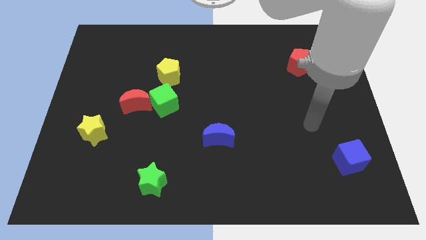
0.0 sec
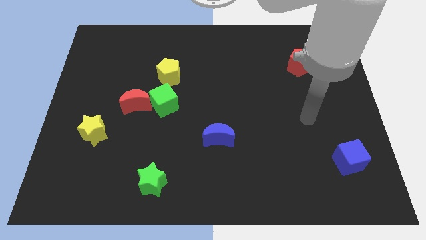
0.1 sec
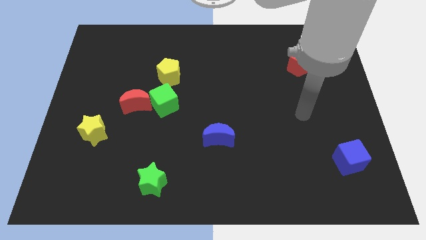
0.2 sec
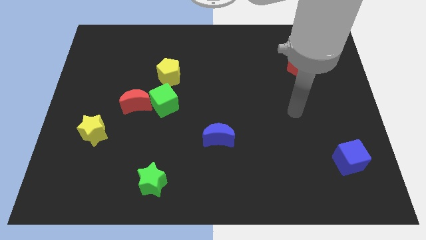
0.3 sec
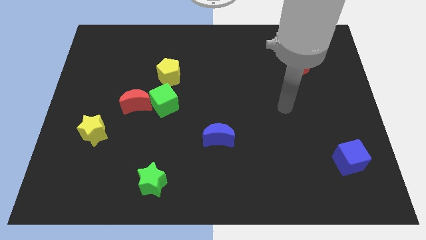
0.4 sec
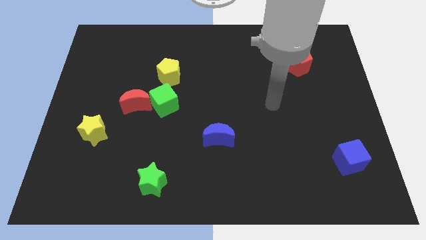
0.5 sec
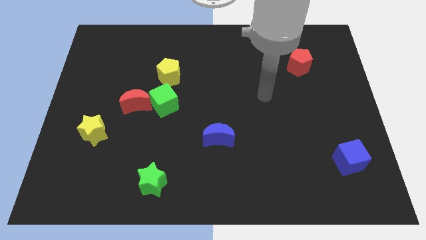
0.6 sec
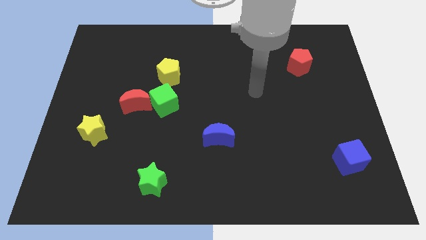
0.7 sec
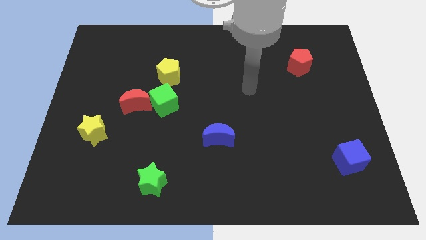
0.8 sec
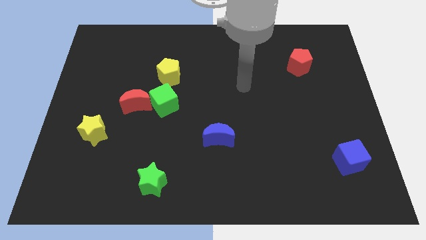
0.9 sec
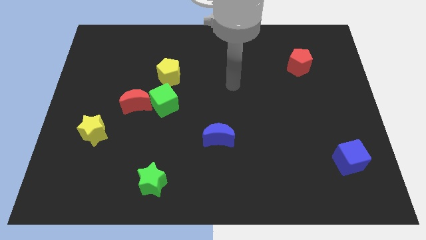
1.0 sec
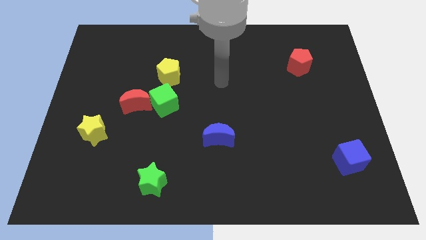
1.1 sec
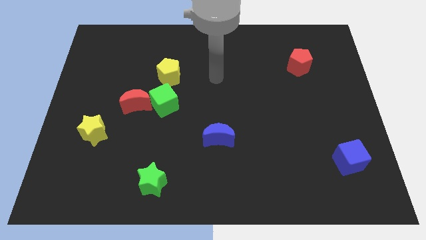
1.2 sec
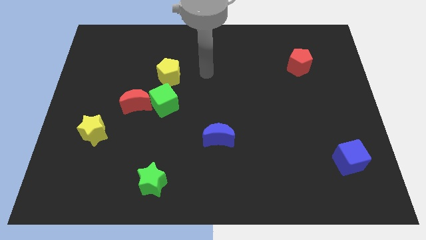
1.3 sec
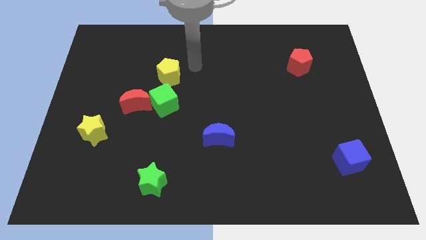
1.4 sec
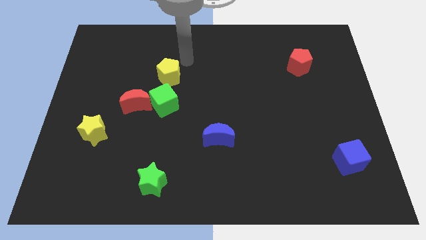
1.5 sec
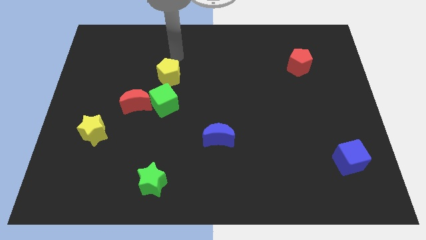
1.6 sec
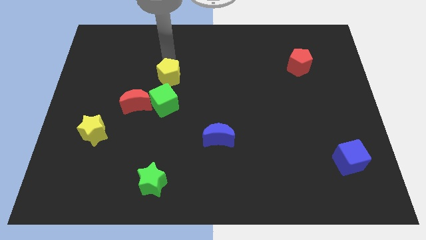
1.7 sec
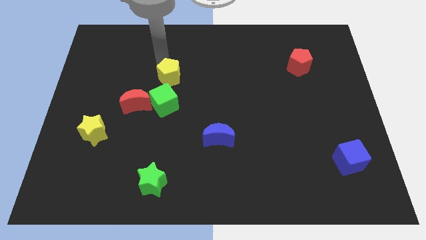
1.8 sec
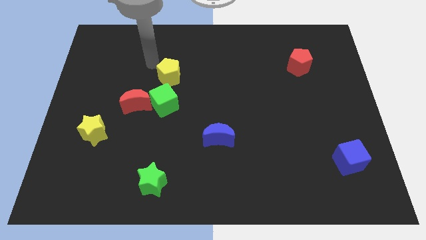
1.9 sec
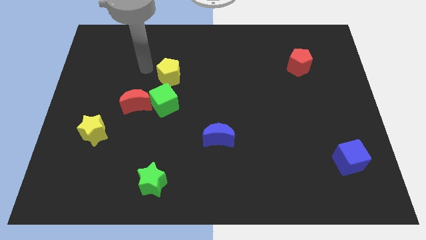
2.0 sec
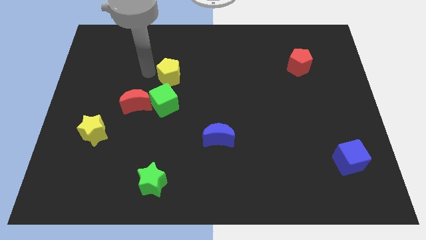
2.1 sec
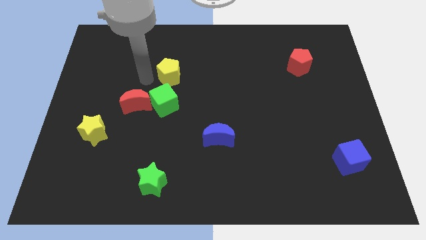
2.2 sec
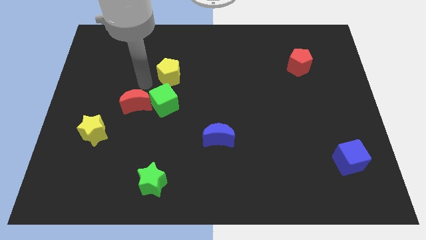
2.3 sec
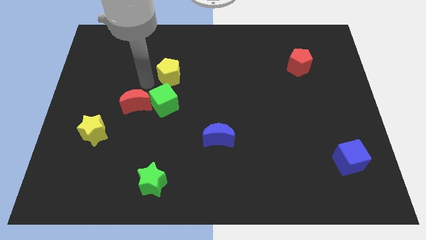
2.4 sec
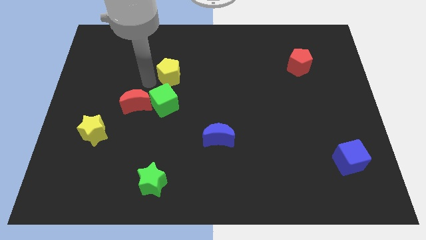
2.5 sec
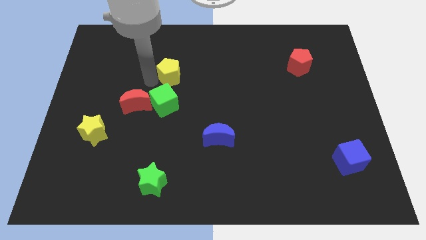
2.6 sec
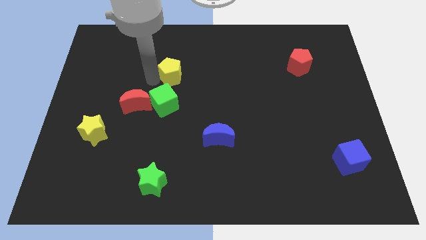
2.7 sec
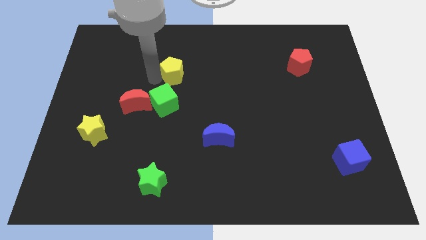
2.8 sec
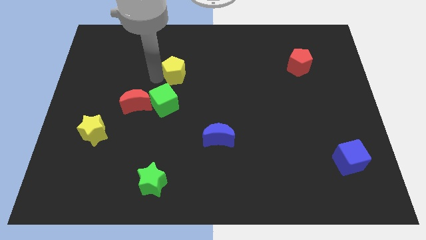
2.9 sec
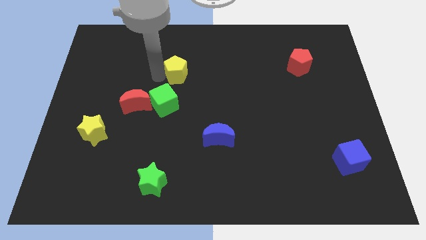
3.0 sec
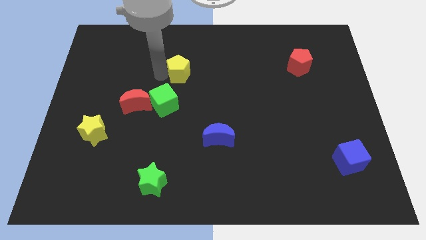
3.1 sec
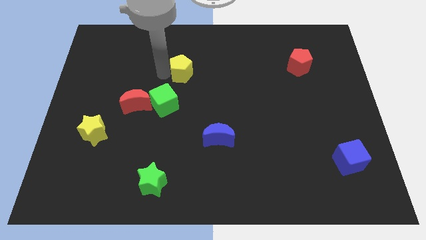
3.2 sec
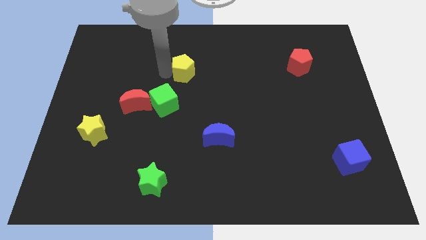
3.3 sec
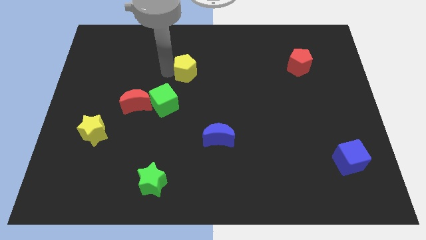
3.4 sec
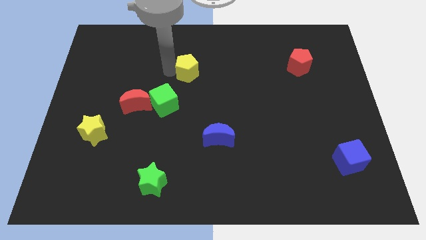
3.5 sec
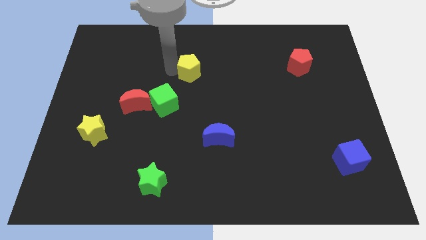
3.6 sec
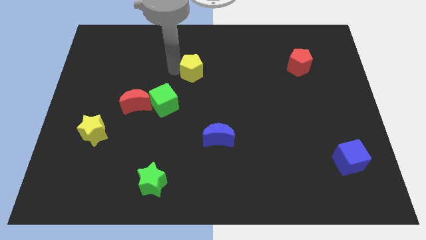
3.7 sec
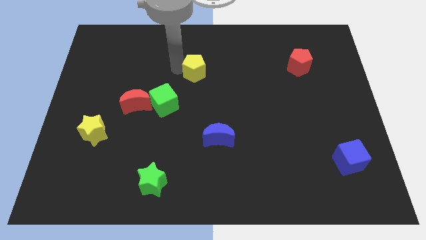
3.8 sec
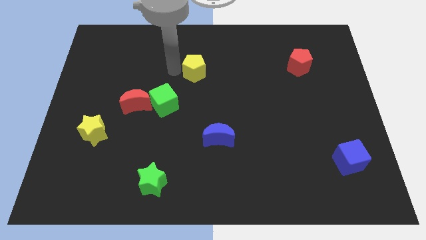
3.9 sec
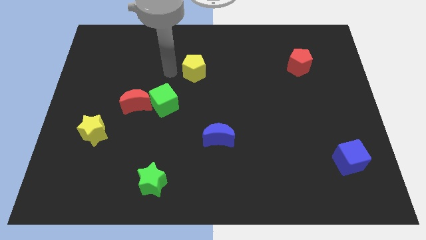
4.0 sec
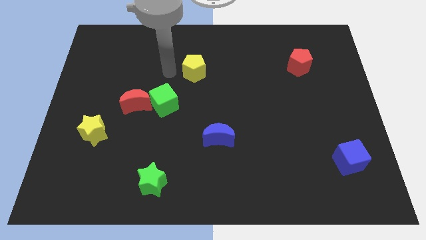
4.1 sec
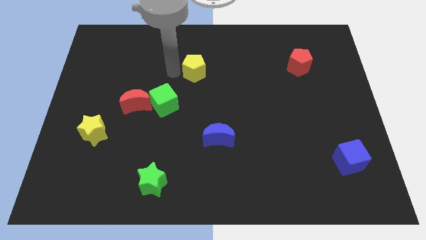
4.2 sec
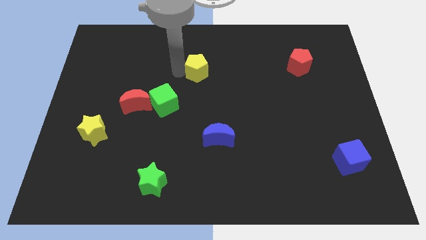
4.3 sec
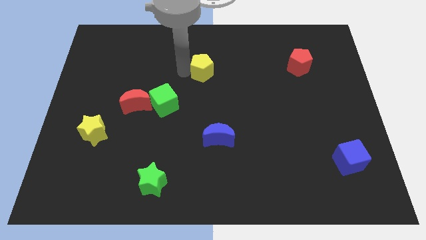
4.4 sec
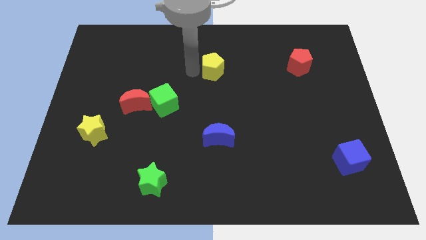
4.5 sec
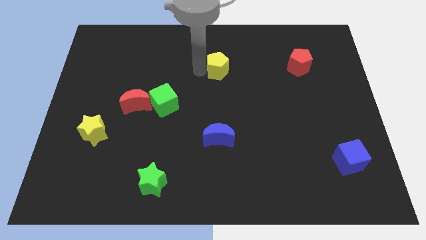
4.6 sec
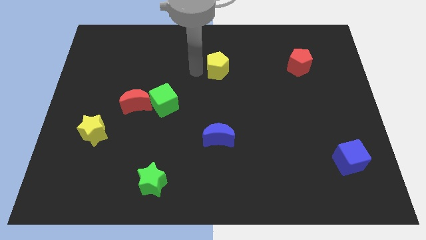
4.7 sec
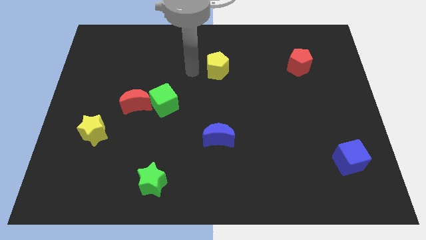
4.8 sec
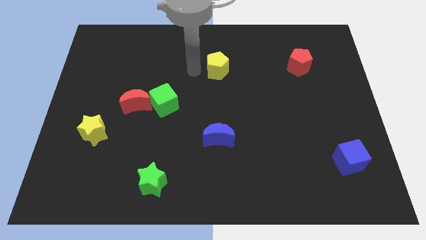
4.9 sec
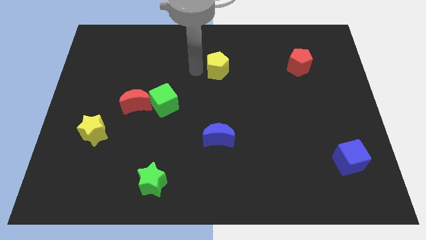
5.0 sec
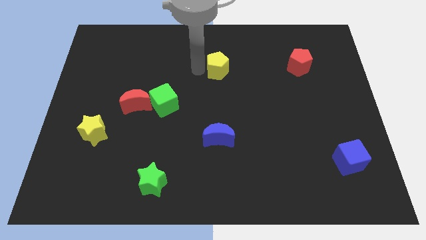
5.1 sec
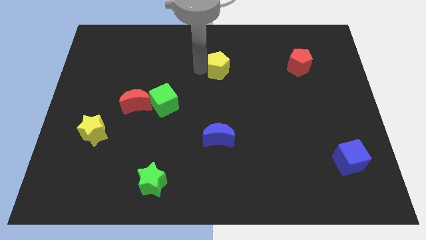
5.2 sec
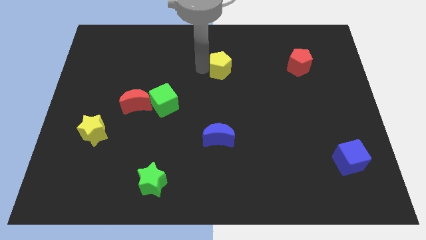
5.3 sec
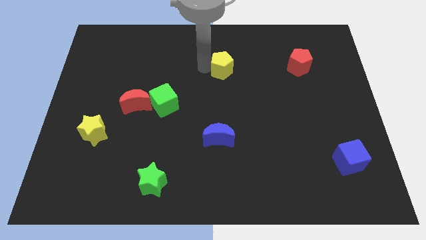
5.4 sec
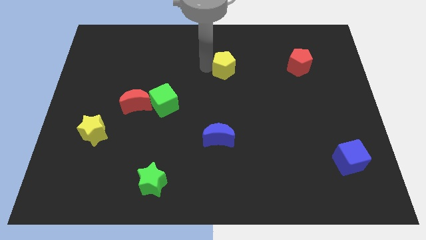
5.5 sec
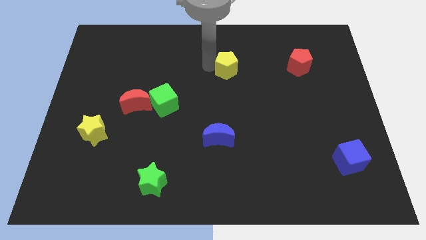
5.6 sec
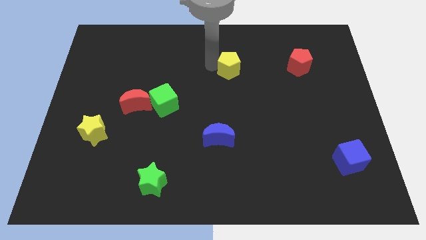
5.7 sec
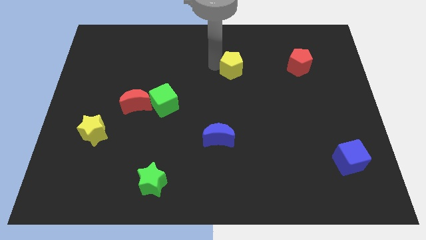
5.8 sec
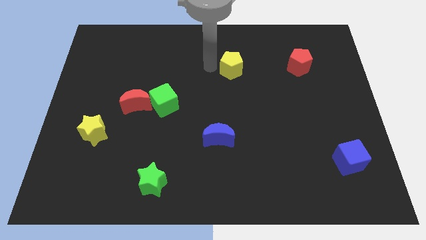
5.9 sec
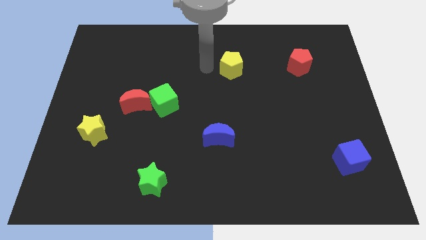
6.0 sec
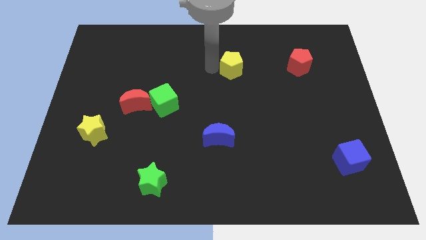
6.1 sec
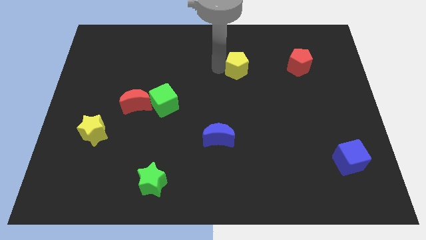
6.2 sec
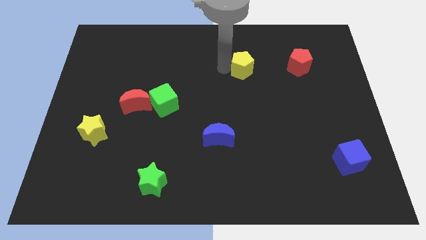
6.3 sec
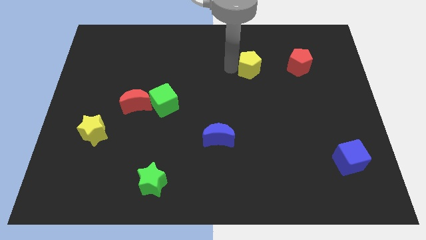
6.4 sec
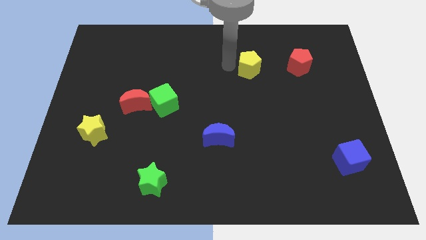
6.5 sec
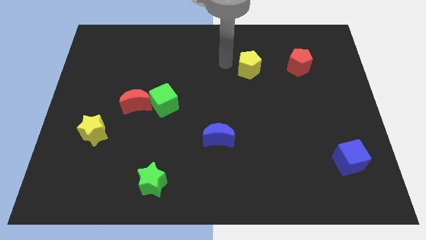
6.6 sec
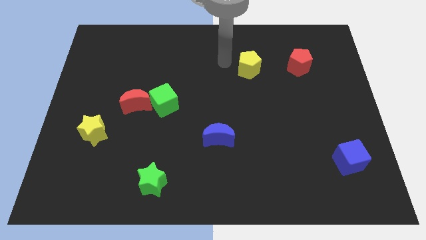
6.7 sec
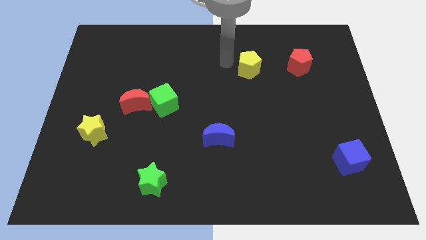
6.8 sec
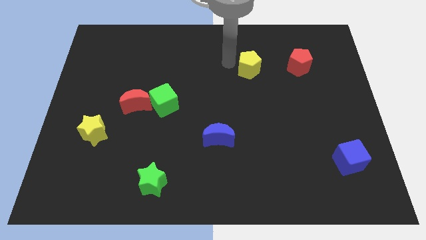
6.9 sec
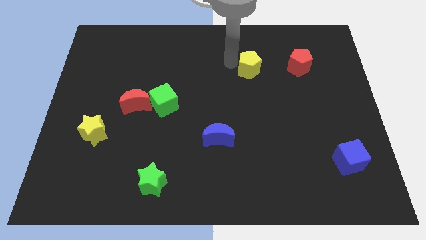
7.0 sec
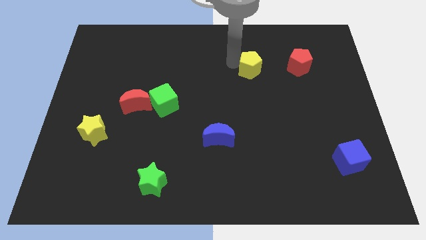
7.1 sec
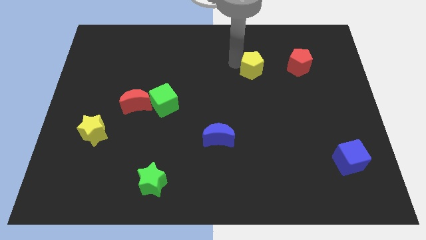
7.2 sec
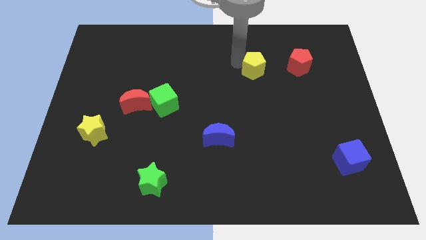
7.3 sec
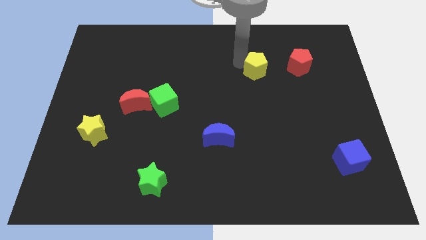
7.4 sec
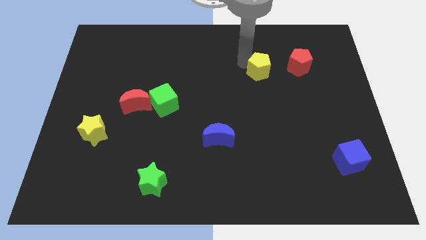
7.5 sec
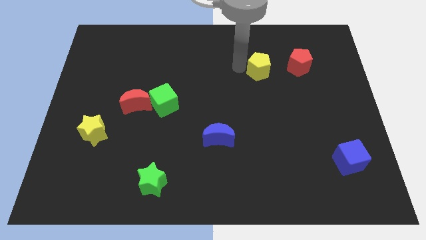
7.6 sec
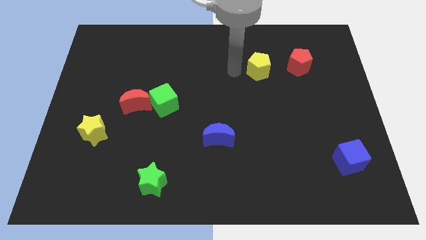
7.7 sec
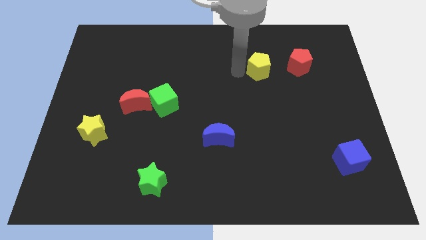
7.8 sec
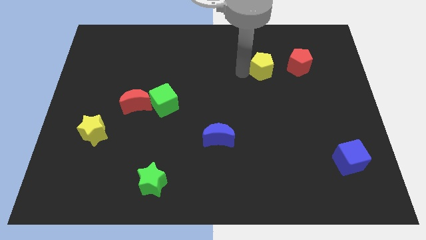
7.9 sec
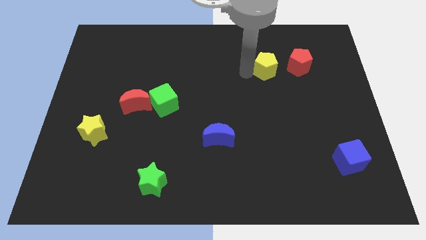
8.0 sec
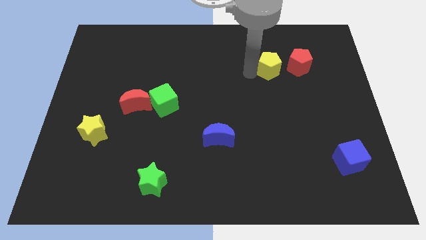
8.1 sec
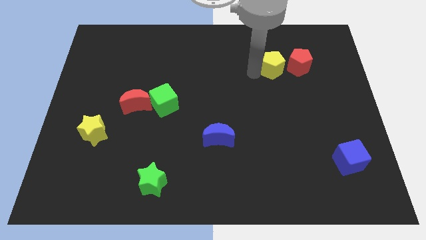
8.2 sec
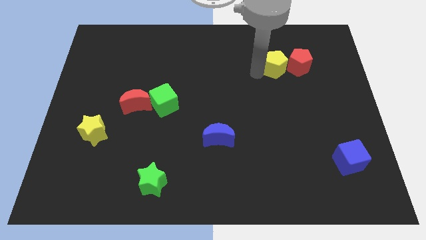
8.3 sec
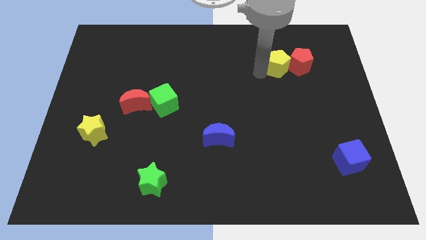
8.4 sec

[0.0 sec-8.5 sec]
put the yellow pentagon close to the red pentagon
